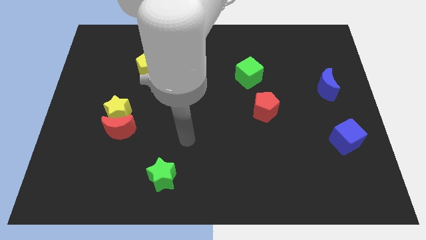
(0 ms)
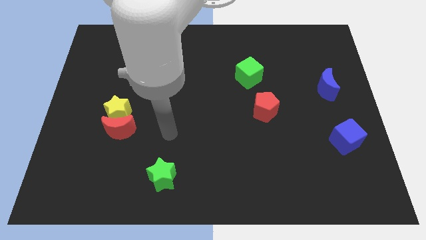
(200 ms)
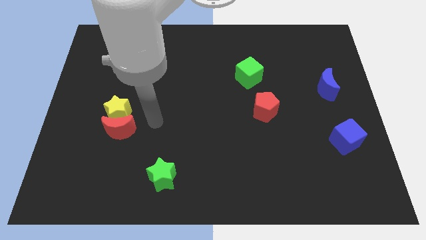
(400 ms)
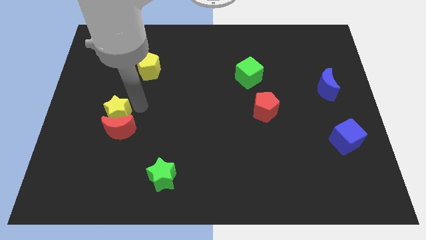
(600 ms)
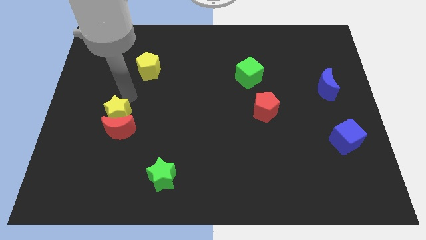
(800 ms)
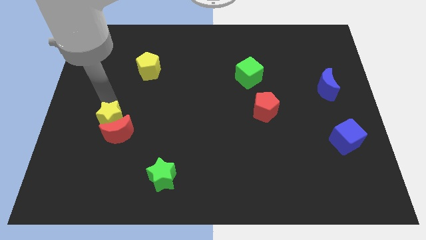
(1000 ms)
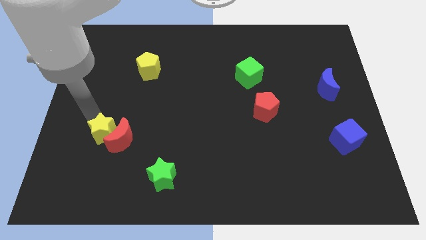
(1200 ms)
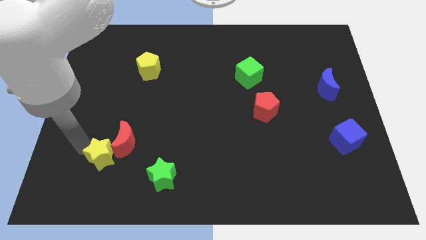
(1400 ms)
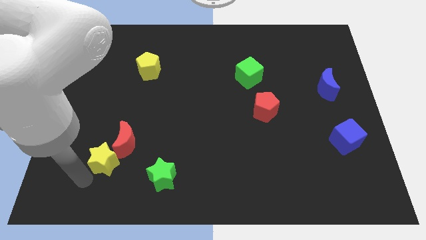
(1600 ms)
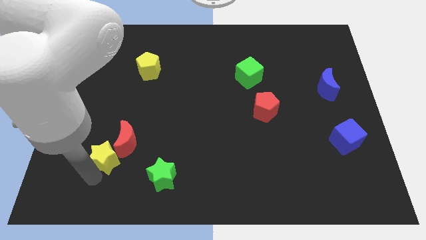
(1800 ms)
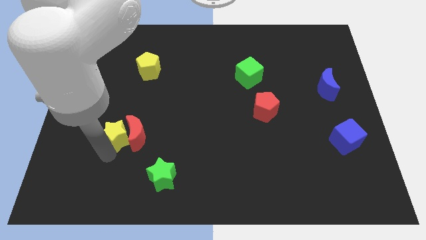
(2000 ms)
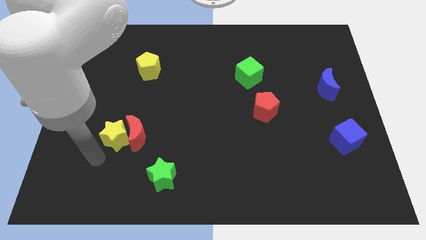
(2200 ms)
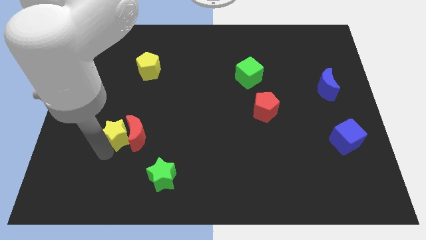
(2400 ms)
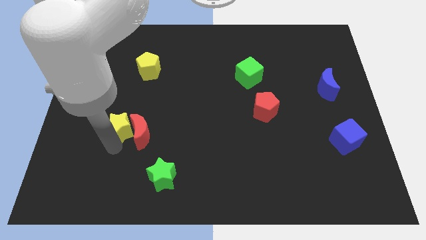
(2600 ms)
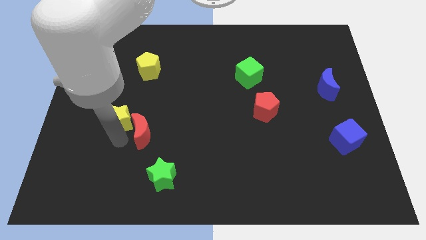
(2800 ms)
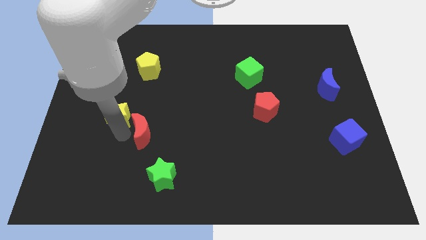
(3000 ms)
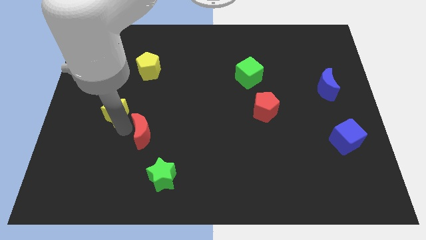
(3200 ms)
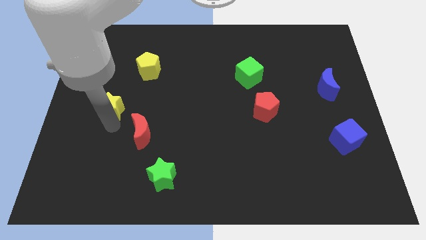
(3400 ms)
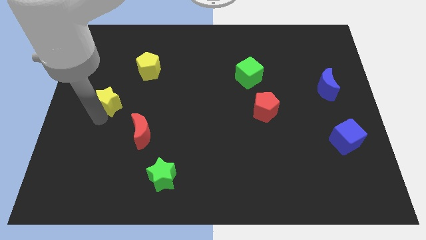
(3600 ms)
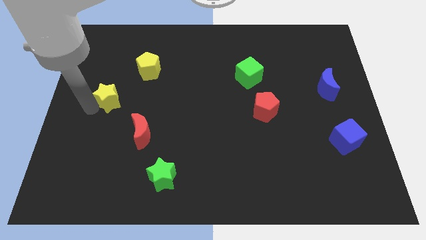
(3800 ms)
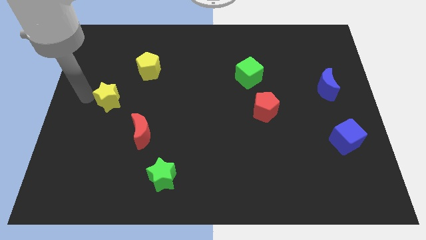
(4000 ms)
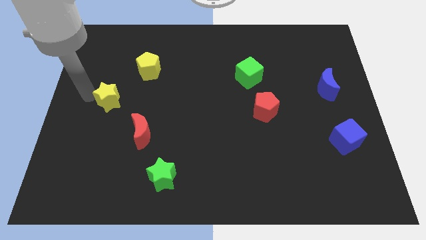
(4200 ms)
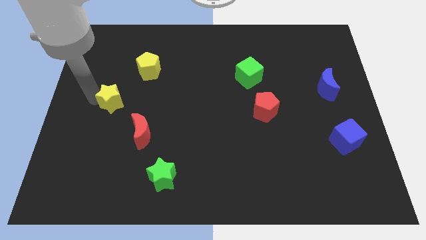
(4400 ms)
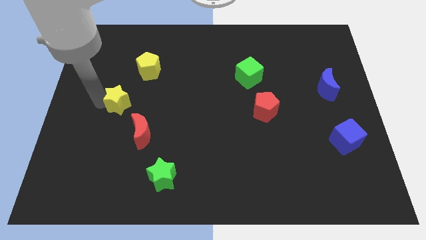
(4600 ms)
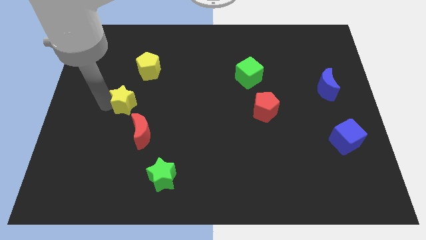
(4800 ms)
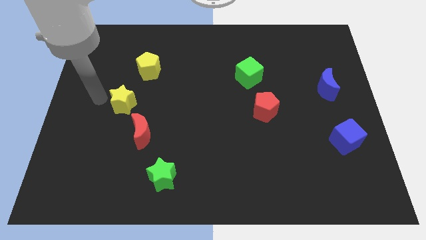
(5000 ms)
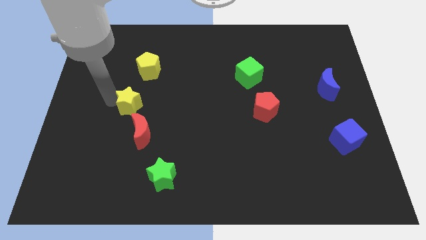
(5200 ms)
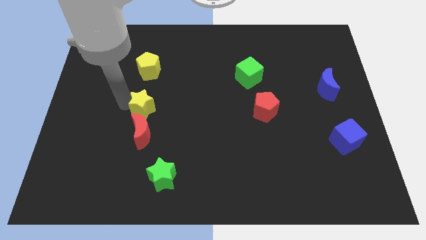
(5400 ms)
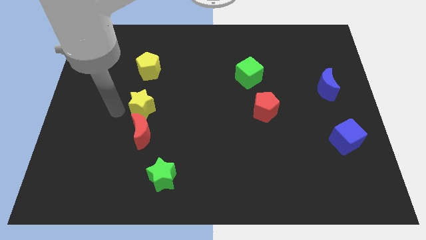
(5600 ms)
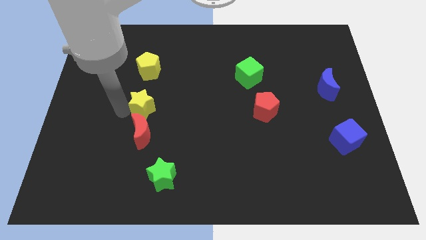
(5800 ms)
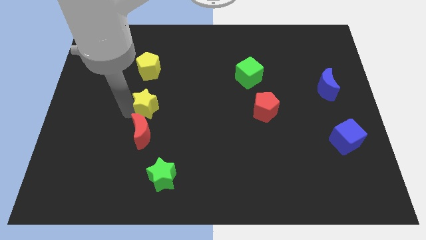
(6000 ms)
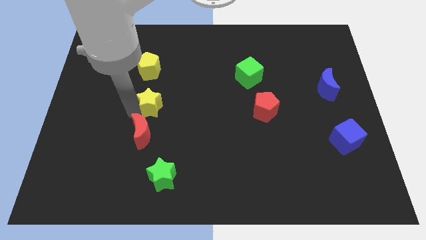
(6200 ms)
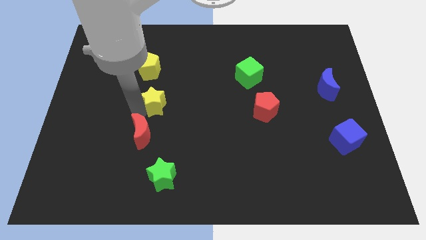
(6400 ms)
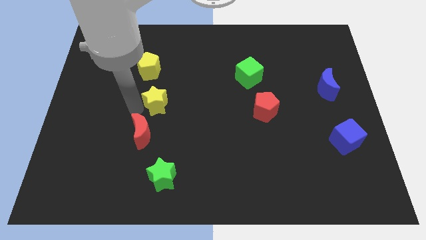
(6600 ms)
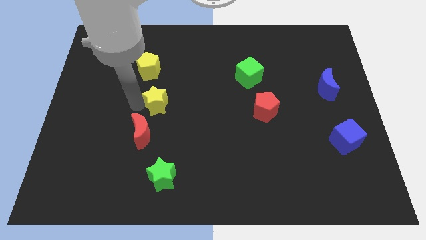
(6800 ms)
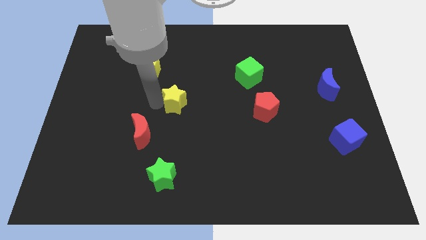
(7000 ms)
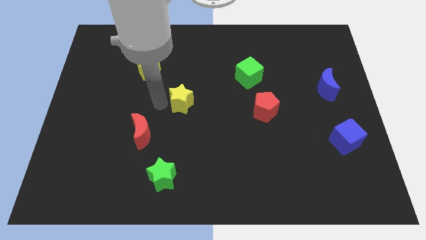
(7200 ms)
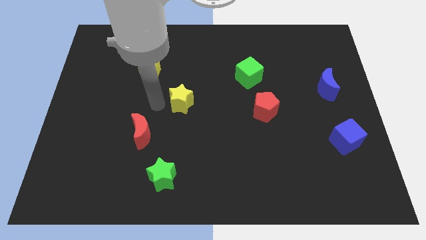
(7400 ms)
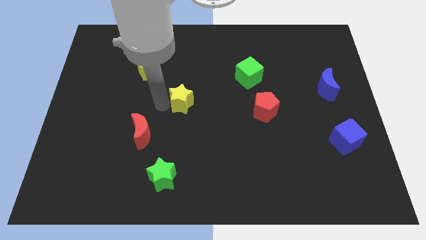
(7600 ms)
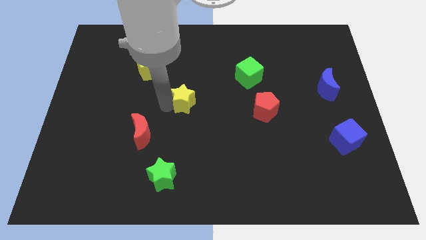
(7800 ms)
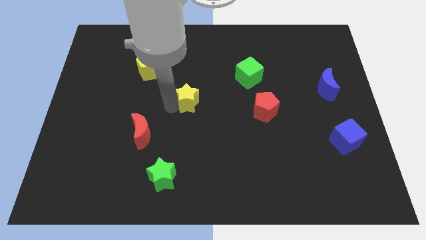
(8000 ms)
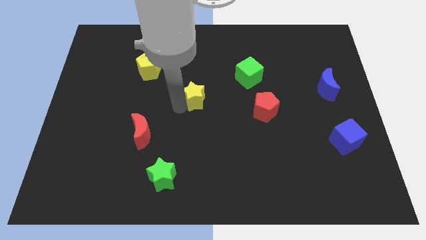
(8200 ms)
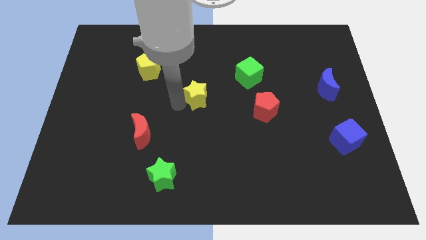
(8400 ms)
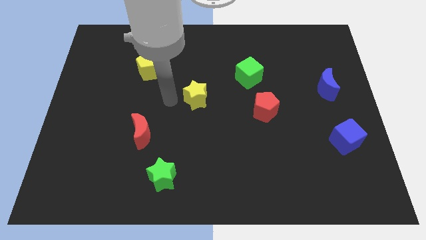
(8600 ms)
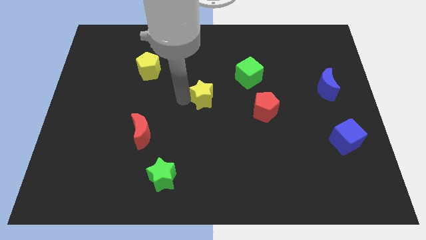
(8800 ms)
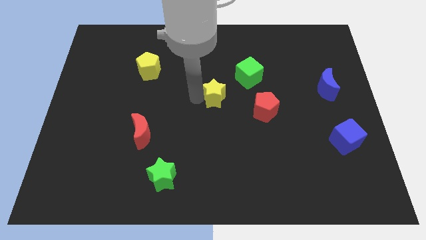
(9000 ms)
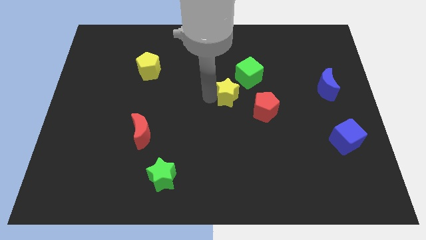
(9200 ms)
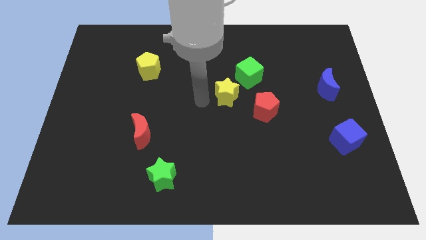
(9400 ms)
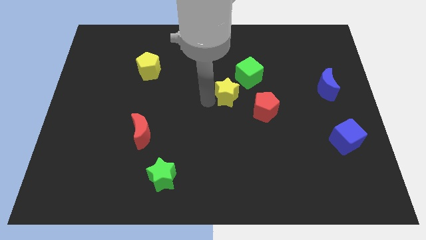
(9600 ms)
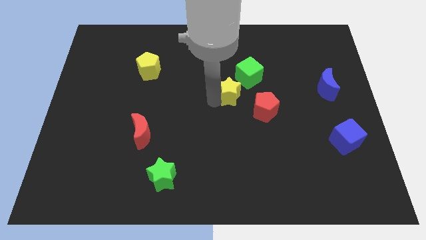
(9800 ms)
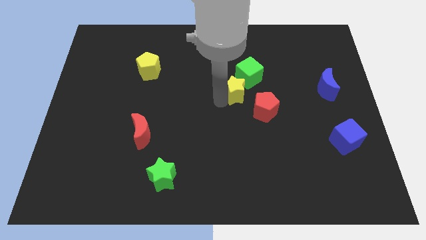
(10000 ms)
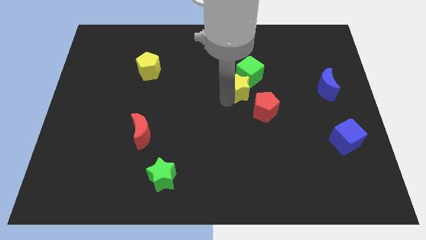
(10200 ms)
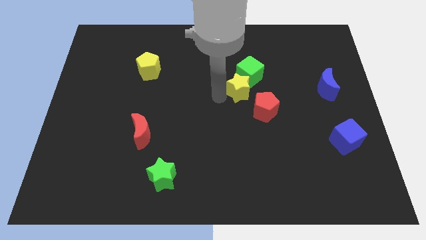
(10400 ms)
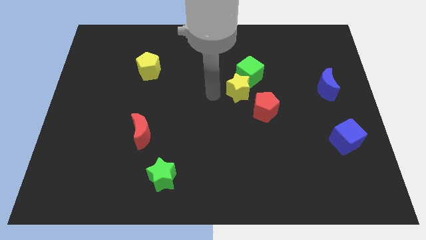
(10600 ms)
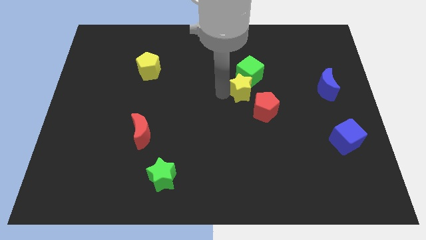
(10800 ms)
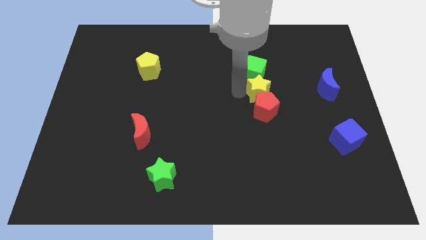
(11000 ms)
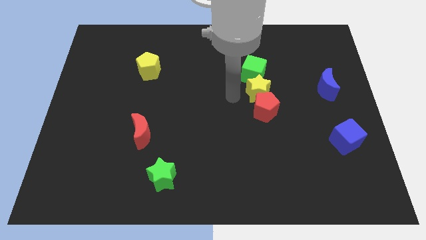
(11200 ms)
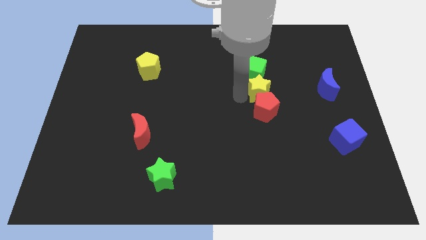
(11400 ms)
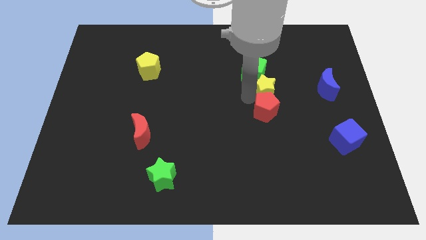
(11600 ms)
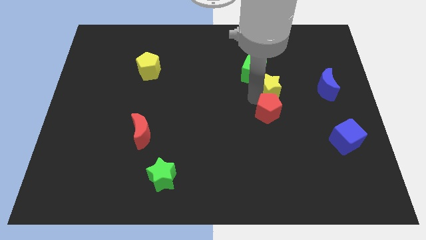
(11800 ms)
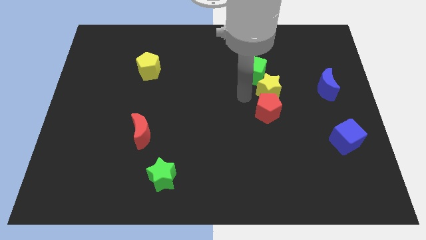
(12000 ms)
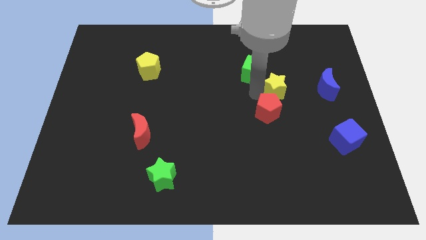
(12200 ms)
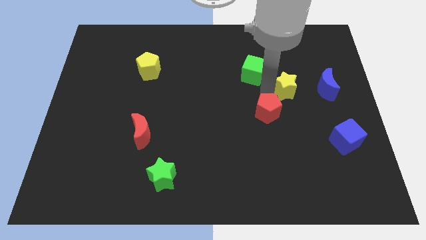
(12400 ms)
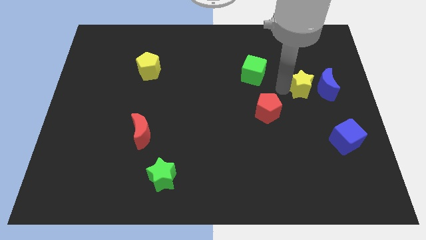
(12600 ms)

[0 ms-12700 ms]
slide the yellow star to the blue moon

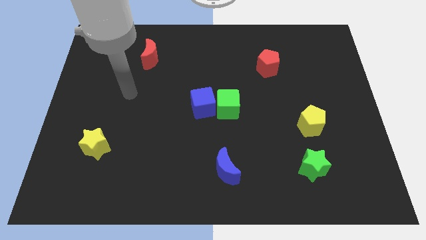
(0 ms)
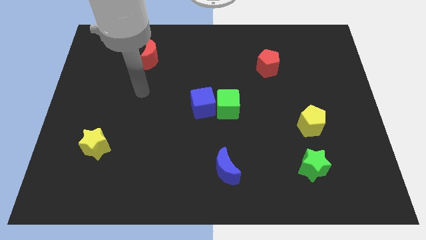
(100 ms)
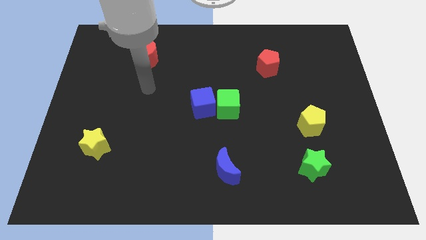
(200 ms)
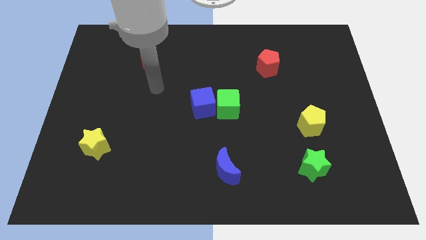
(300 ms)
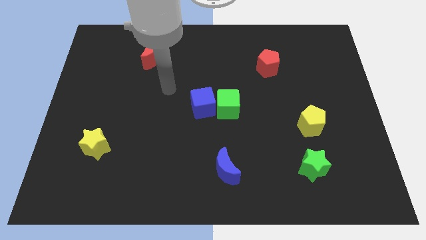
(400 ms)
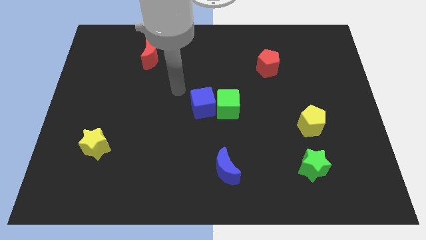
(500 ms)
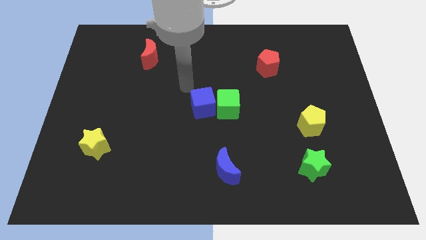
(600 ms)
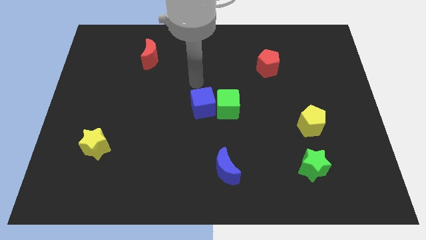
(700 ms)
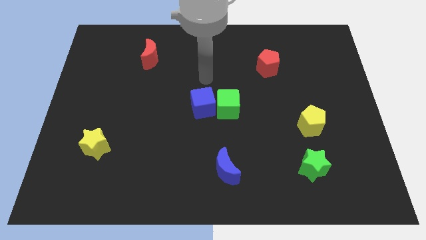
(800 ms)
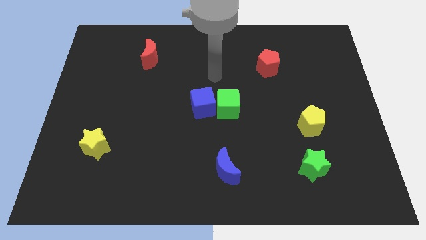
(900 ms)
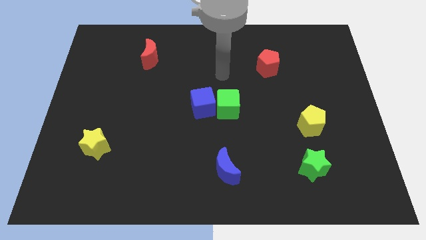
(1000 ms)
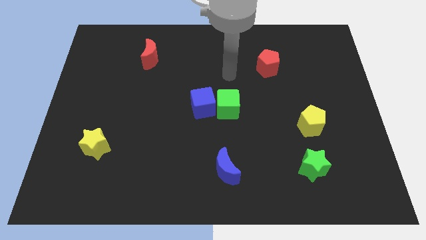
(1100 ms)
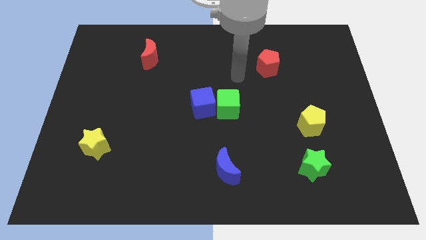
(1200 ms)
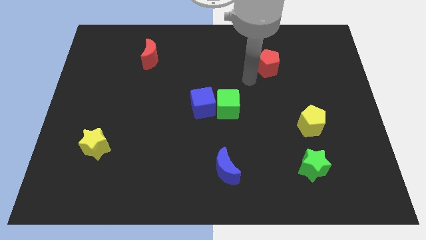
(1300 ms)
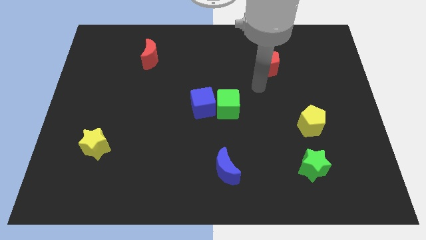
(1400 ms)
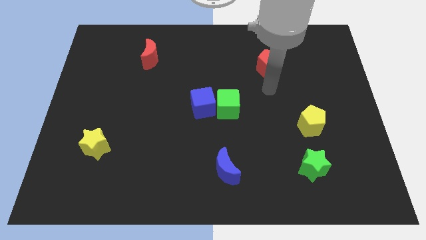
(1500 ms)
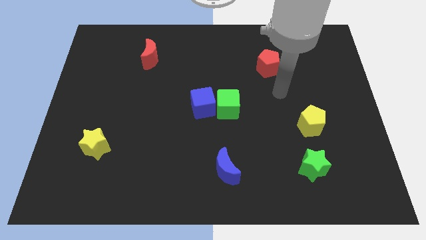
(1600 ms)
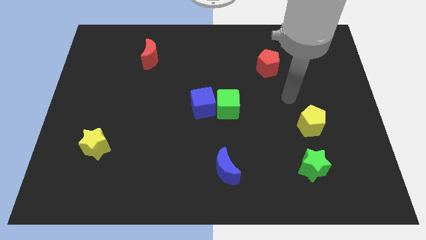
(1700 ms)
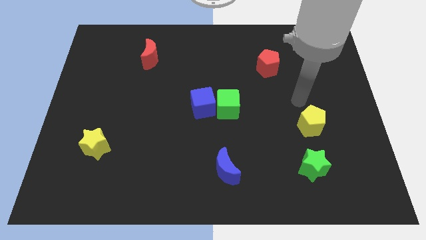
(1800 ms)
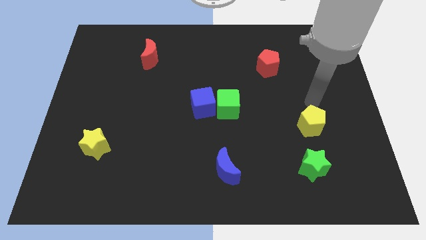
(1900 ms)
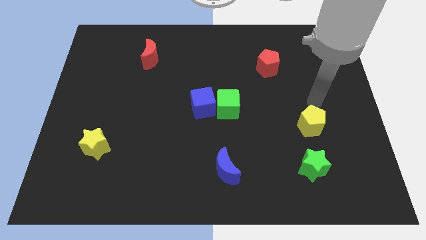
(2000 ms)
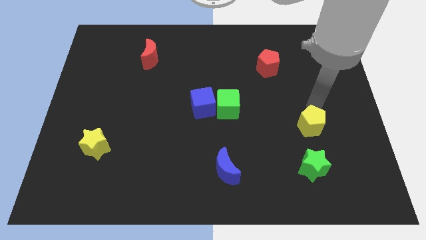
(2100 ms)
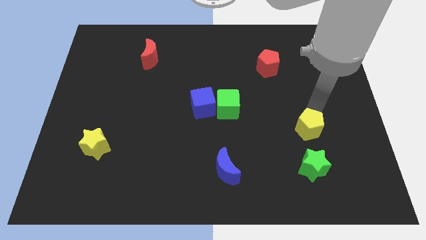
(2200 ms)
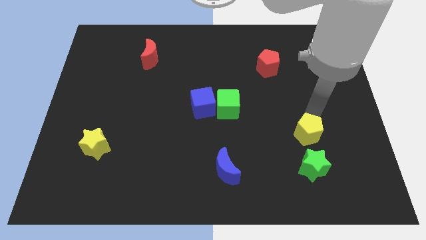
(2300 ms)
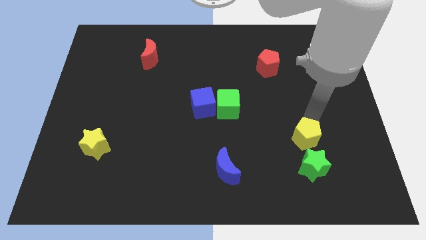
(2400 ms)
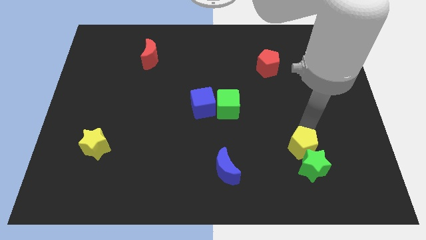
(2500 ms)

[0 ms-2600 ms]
push the yellow pentagon close to the green star
